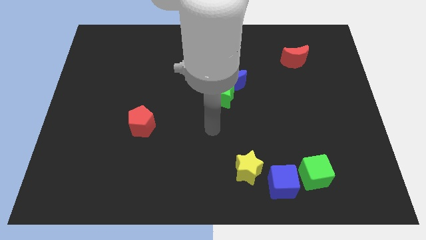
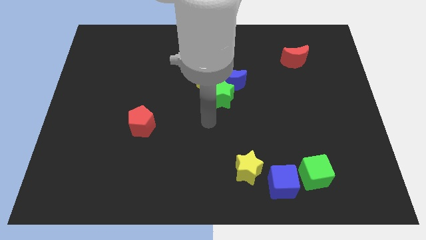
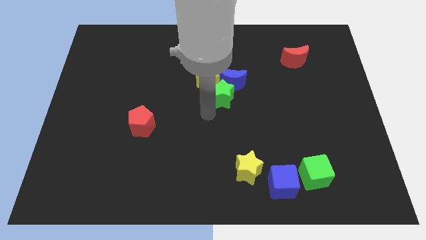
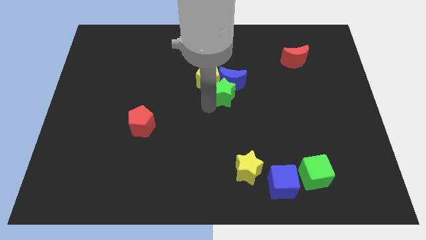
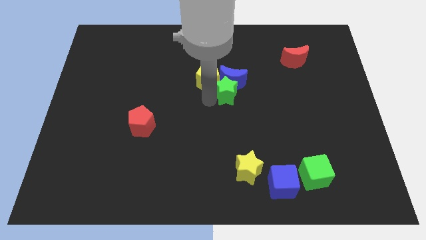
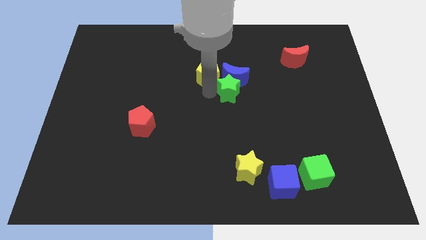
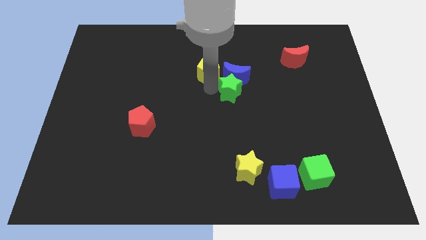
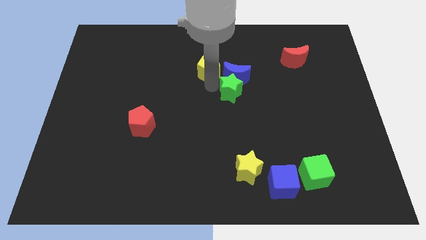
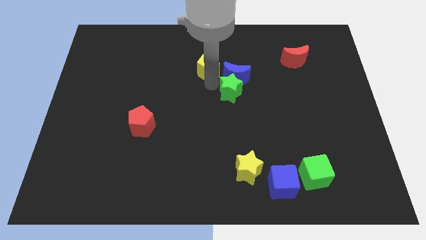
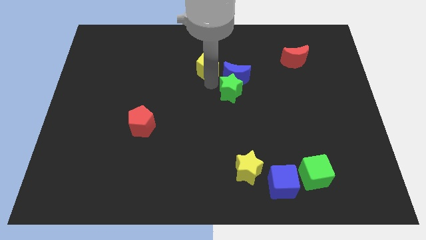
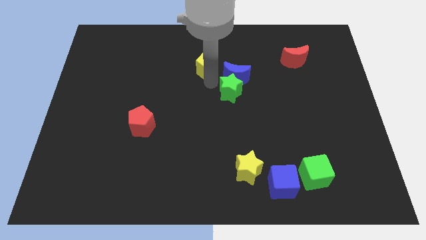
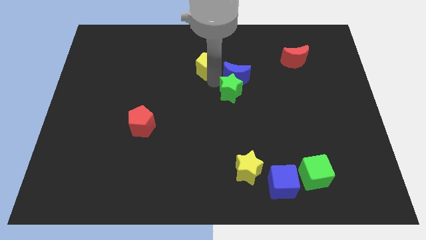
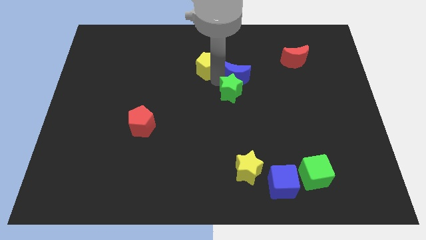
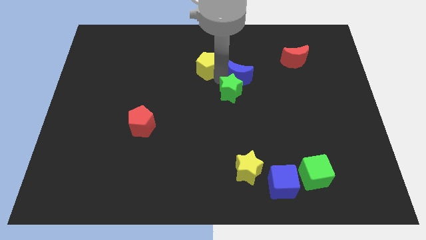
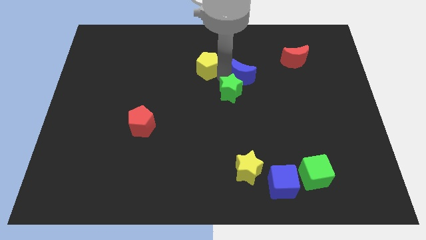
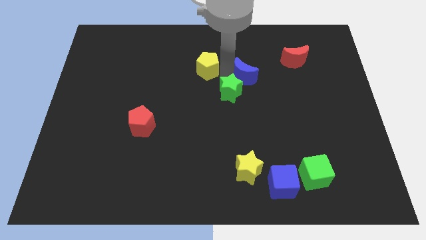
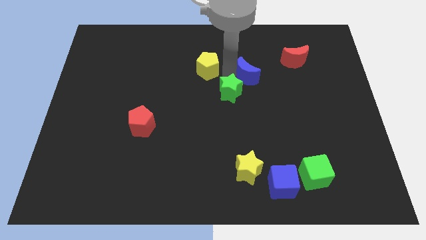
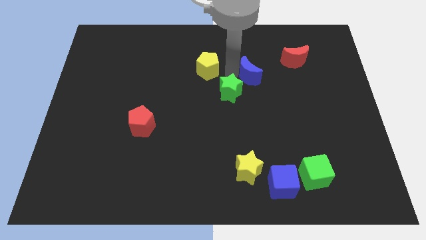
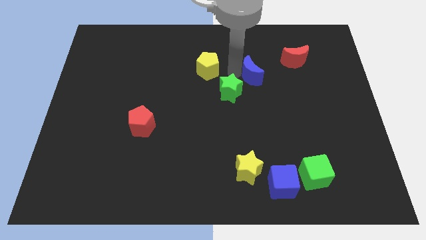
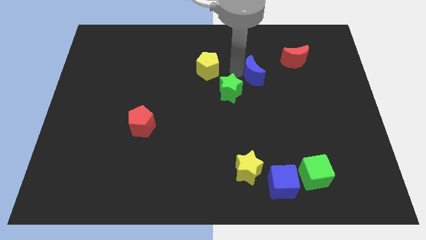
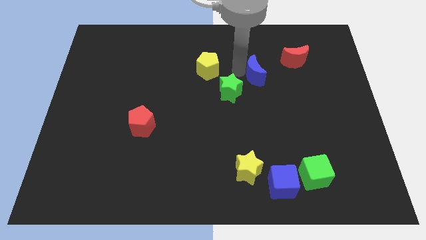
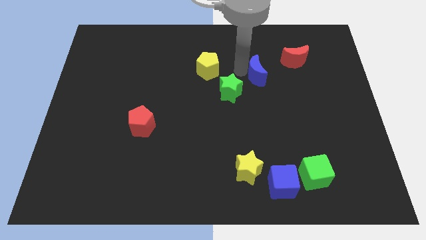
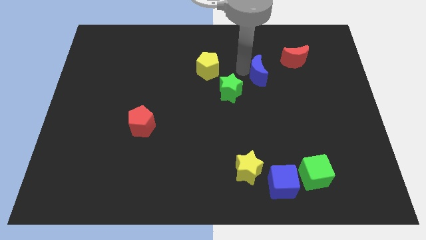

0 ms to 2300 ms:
separate the blue moon from the green star and yellow pentagon

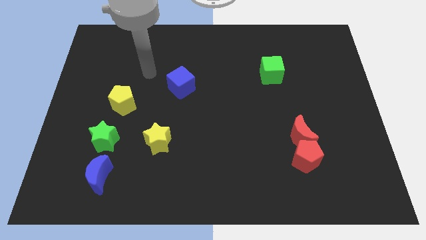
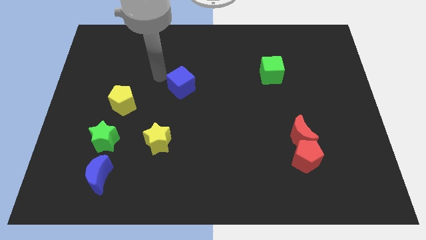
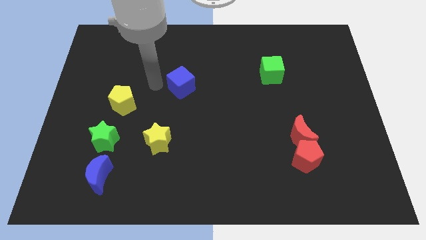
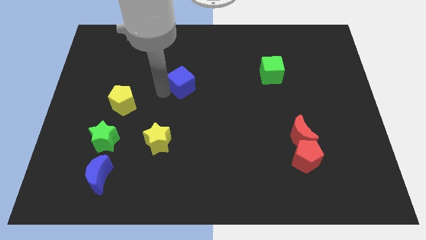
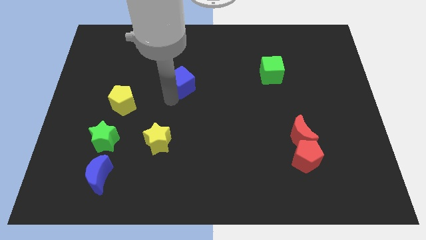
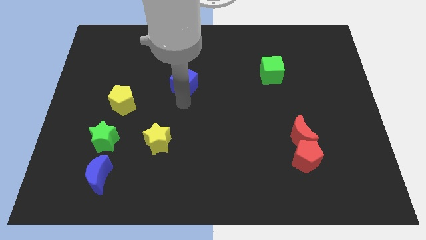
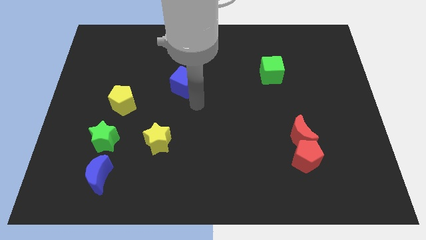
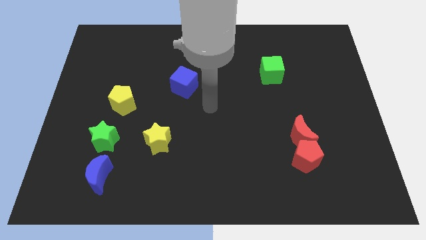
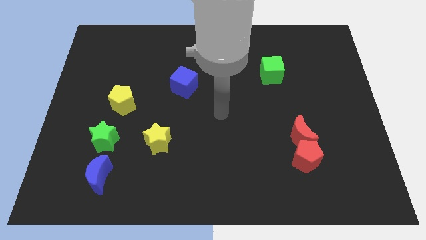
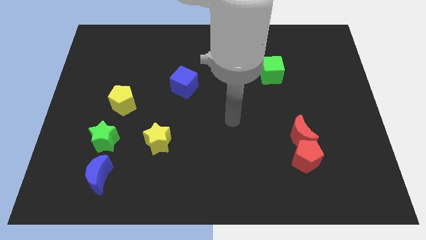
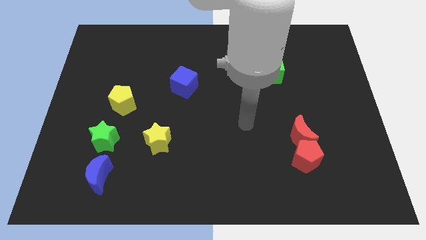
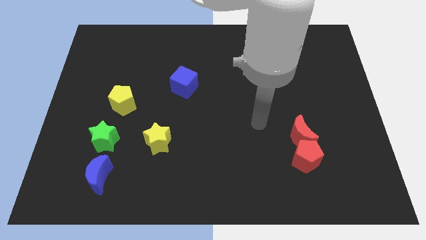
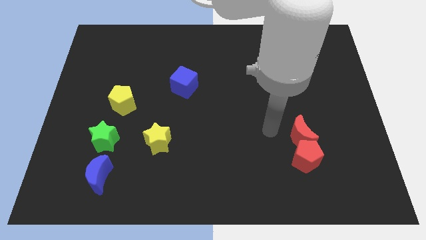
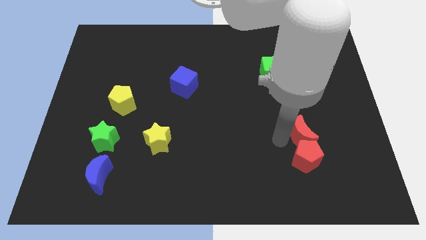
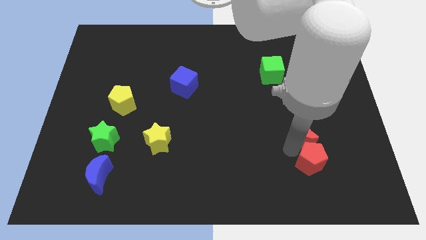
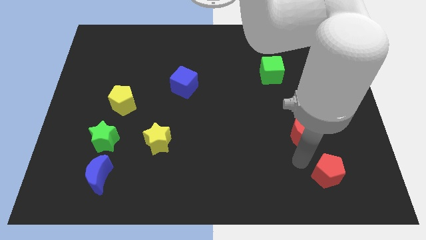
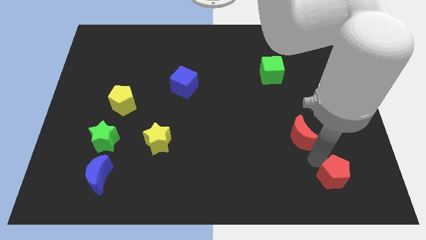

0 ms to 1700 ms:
separate the red moon from the red pentagon

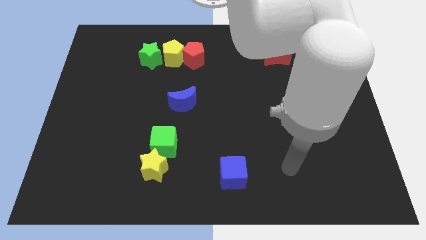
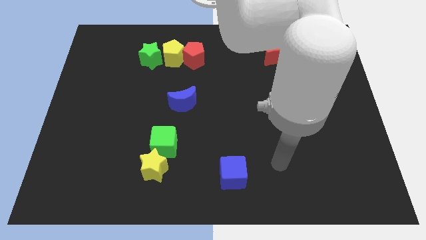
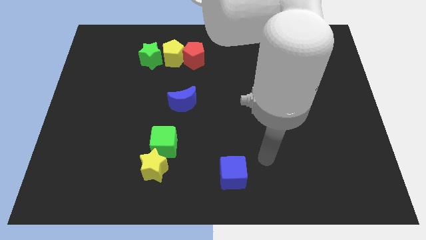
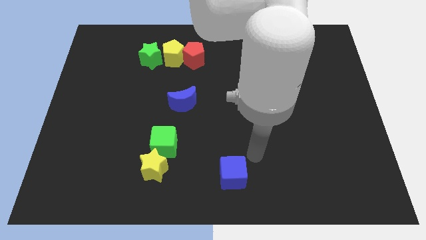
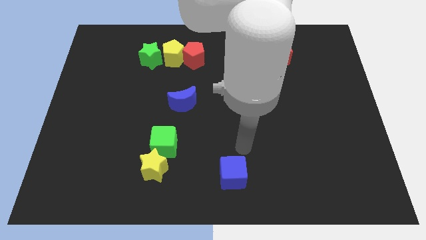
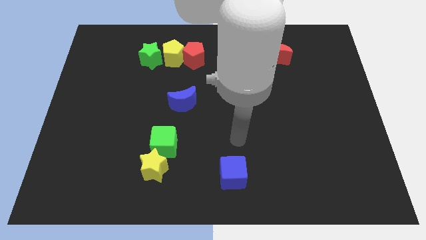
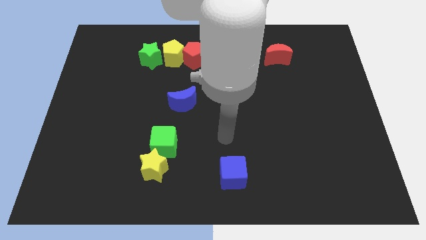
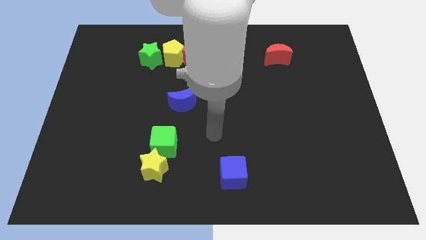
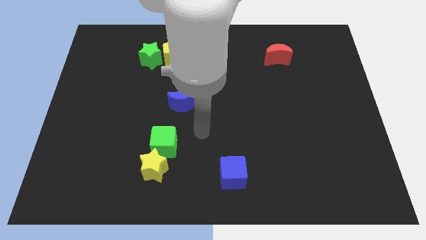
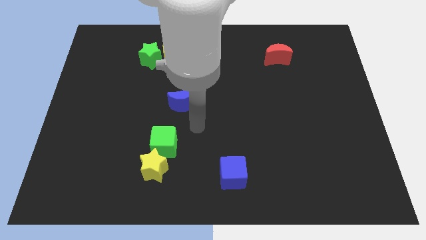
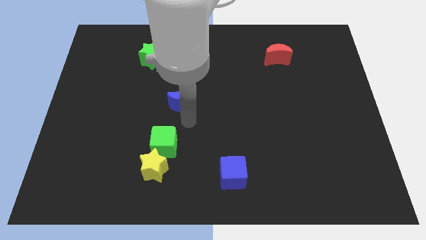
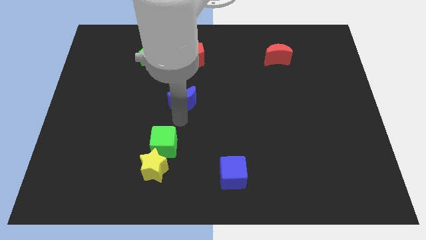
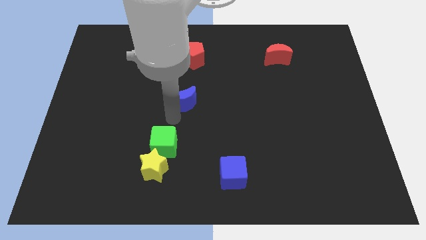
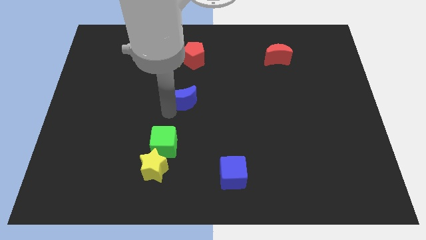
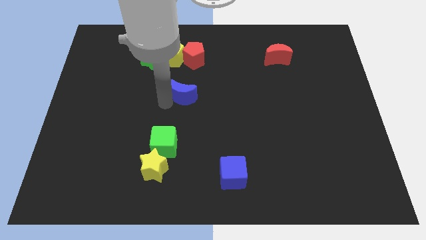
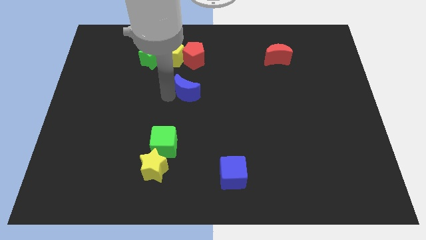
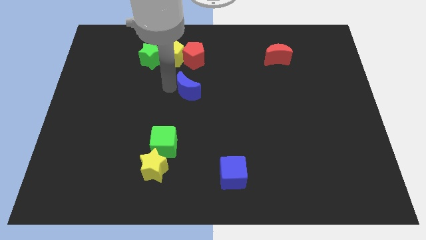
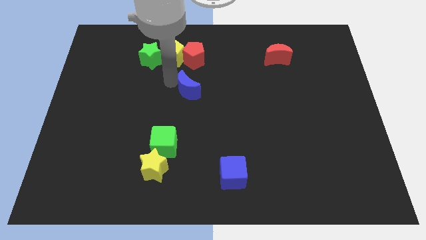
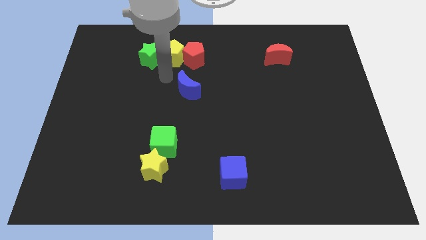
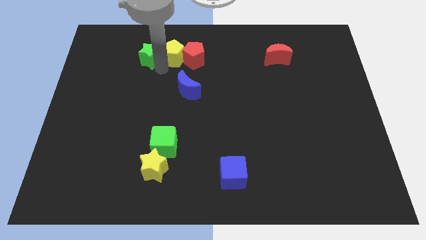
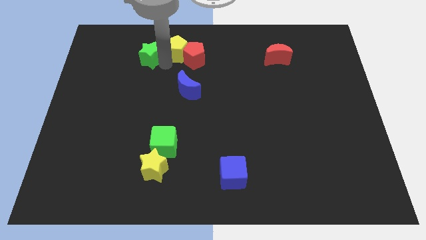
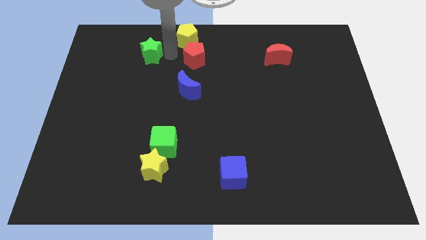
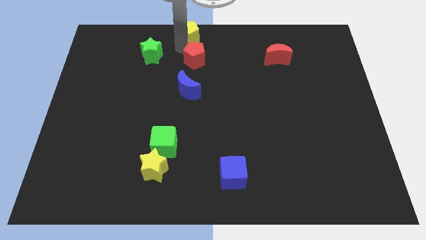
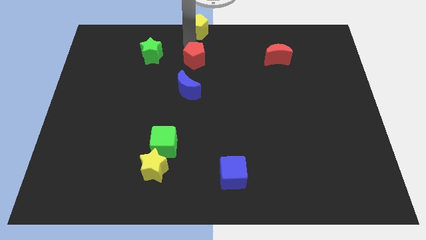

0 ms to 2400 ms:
move the red pentagon away from the yellow pentagon

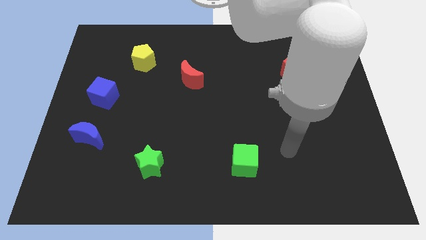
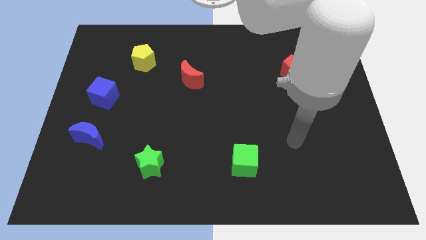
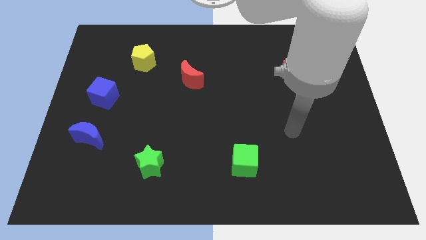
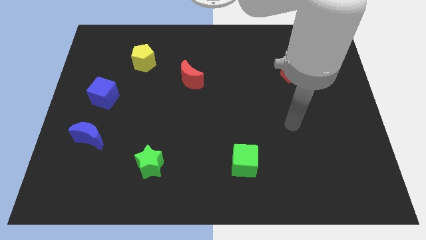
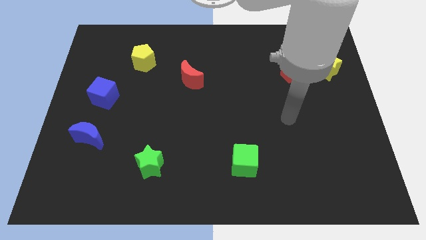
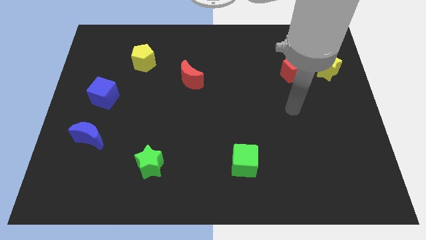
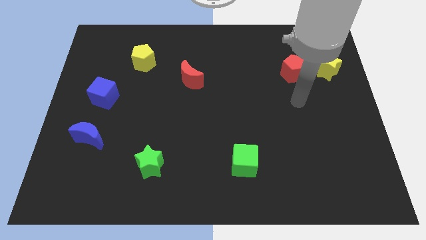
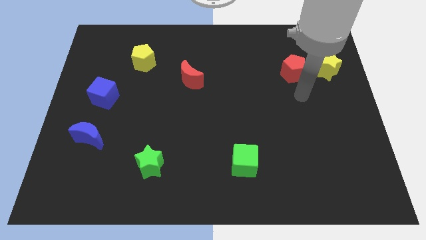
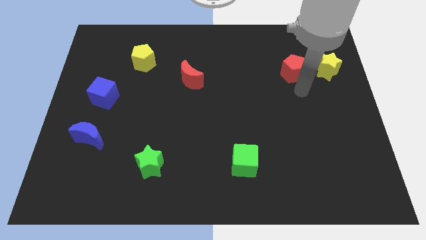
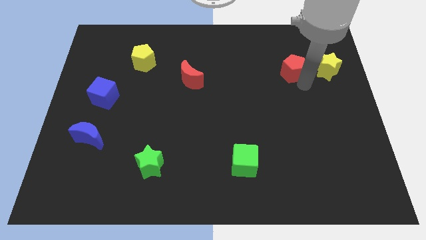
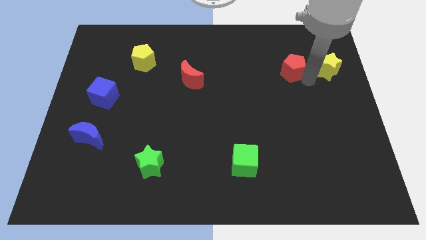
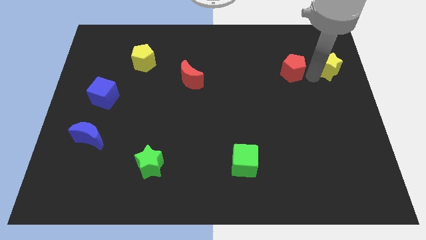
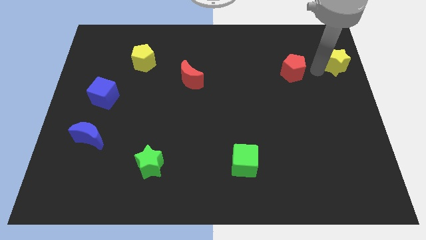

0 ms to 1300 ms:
move the red pentagon away from the yellow star

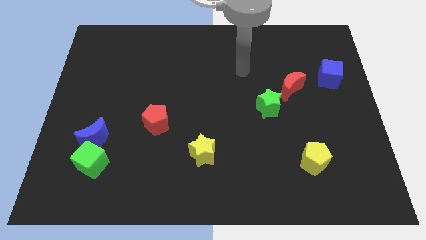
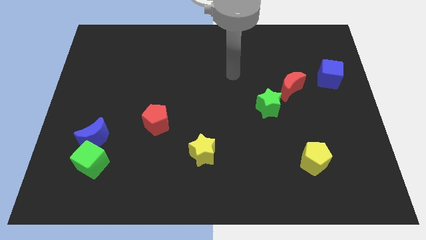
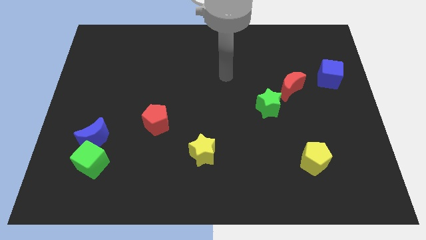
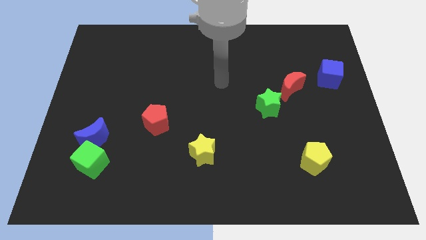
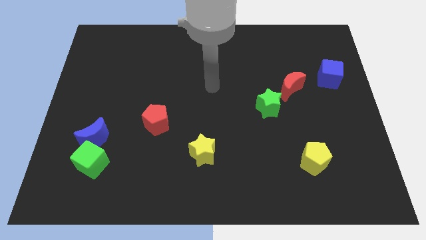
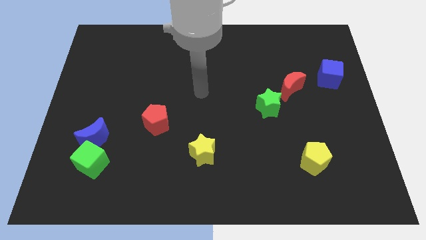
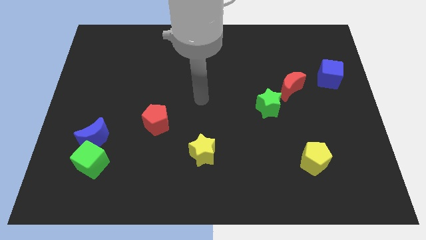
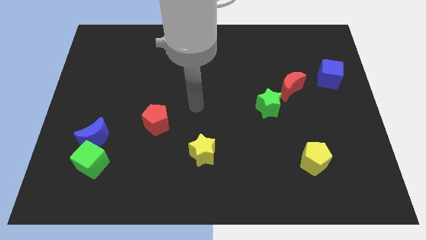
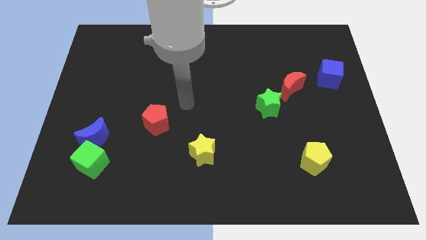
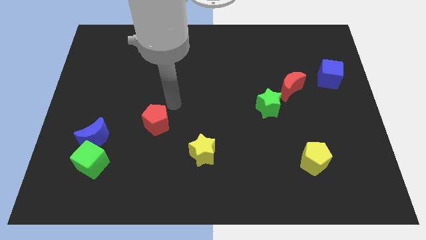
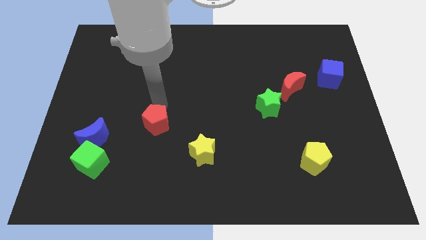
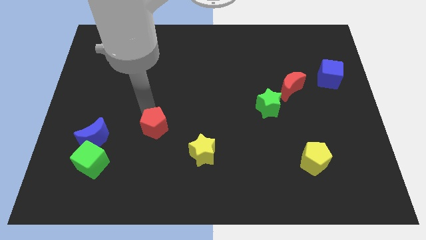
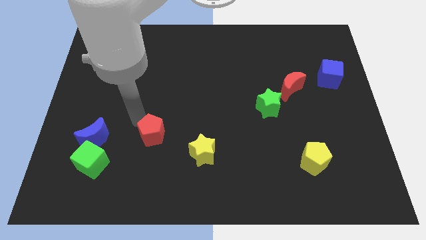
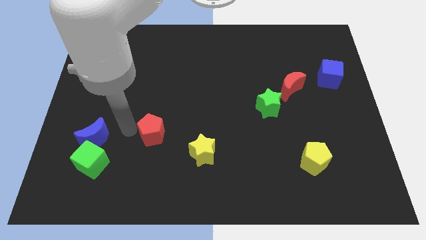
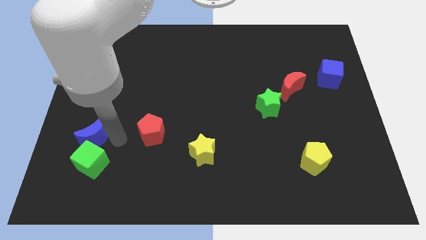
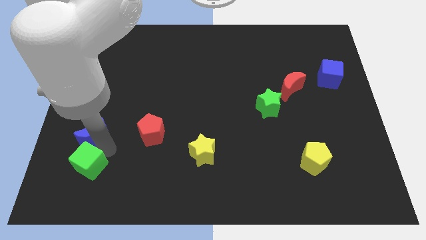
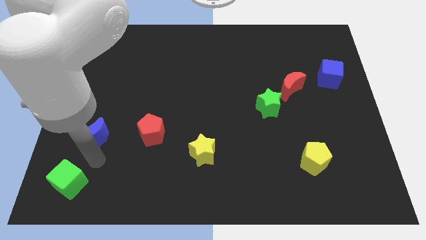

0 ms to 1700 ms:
pull the blue moon apart from the green cube
